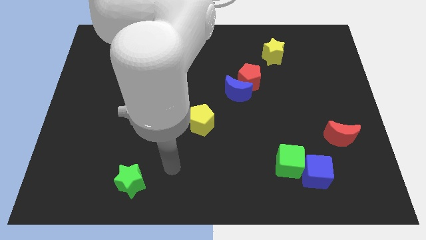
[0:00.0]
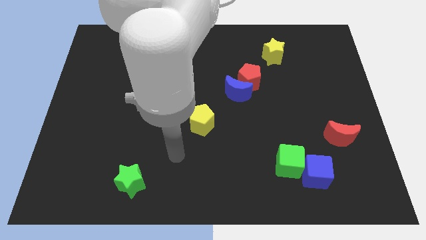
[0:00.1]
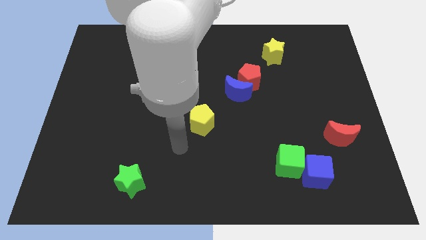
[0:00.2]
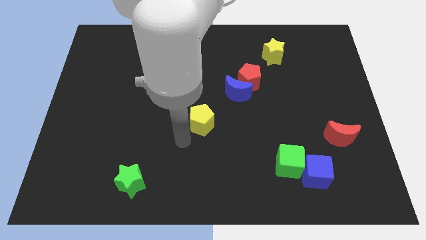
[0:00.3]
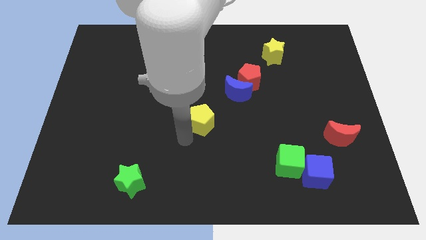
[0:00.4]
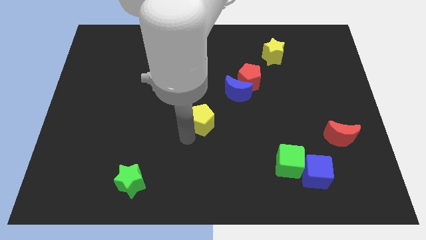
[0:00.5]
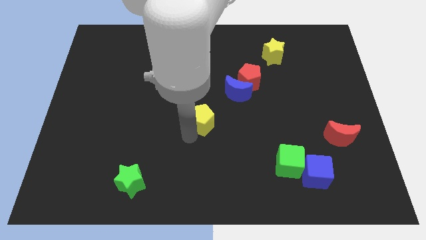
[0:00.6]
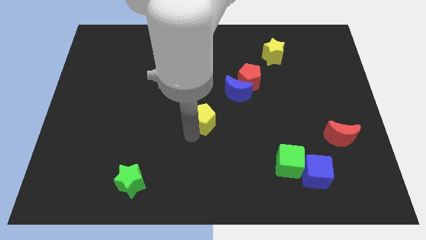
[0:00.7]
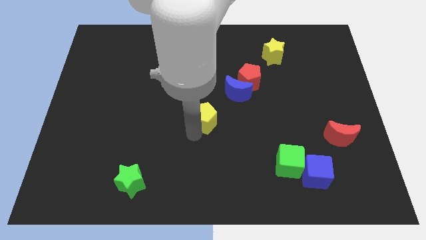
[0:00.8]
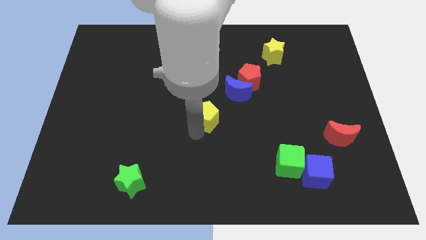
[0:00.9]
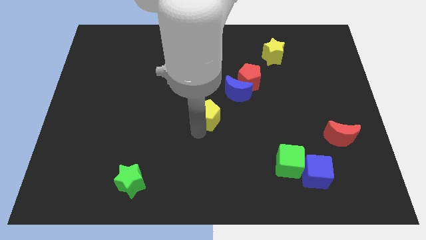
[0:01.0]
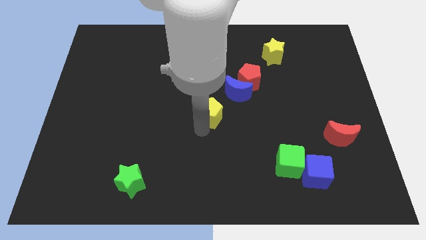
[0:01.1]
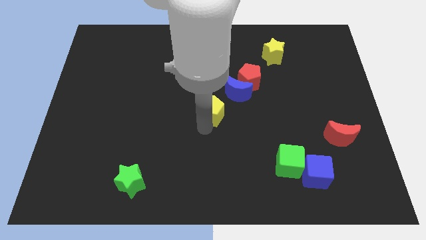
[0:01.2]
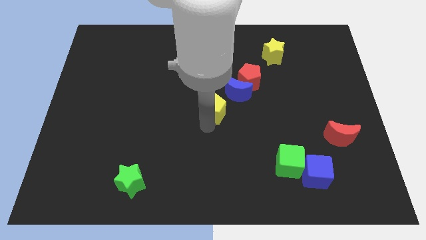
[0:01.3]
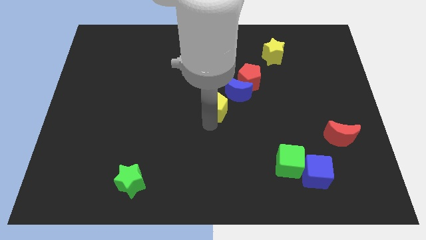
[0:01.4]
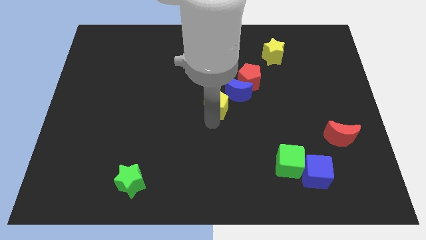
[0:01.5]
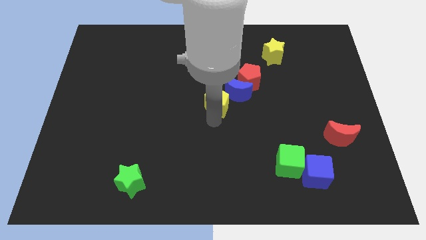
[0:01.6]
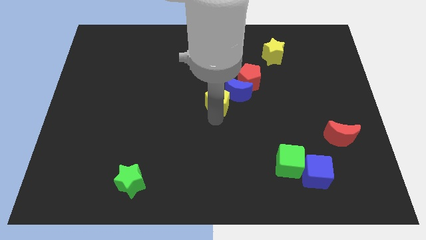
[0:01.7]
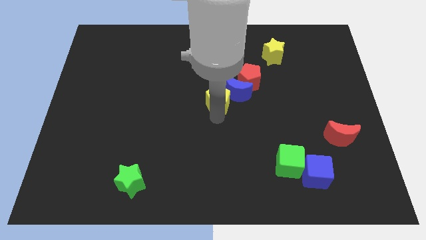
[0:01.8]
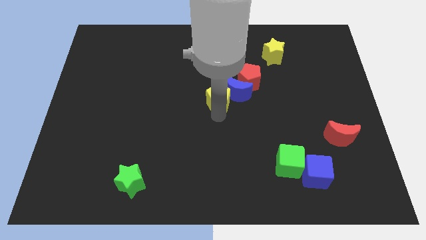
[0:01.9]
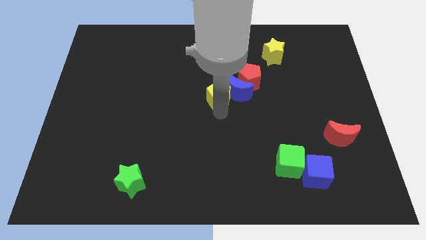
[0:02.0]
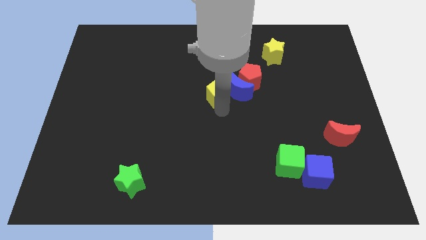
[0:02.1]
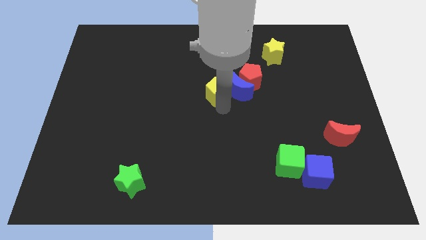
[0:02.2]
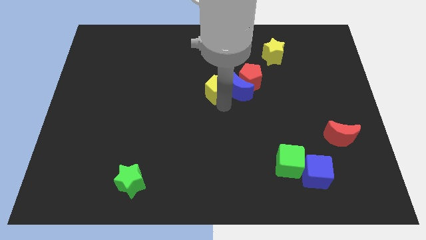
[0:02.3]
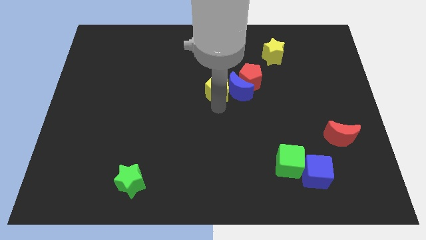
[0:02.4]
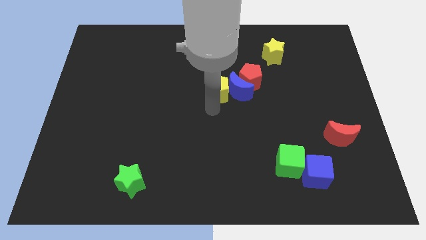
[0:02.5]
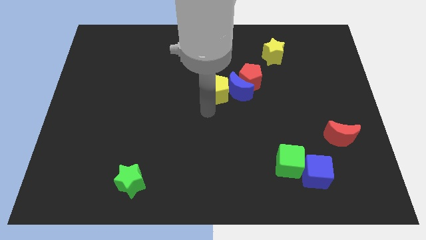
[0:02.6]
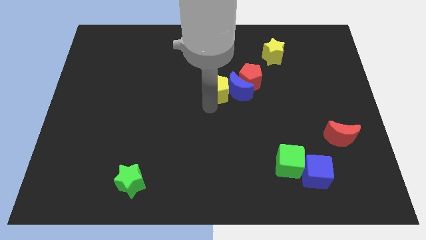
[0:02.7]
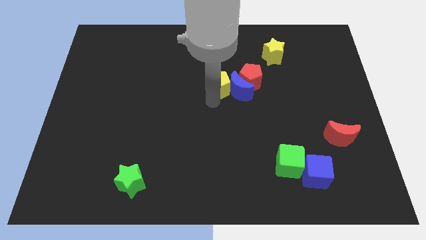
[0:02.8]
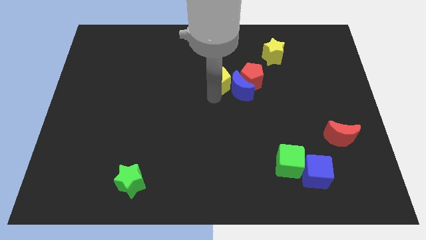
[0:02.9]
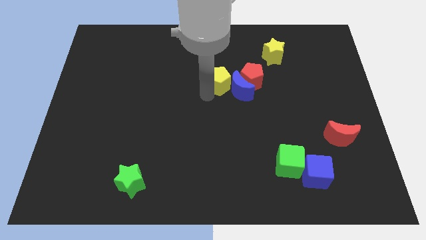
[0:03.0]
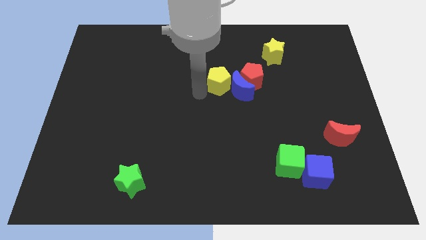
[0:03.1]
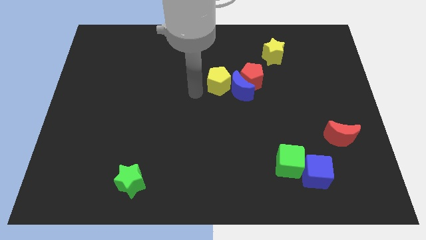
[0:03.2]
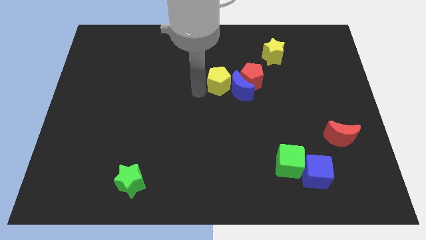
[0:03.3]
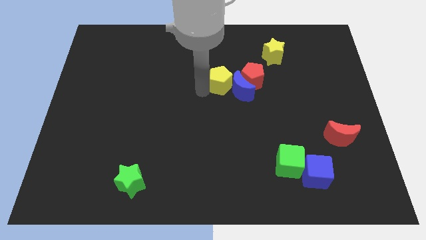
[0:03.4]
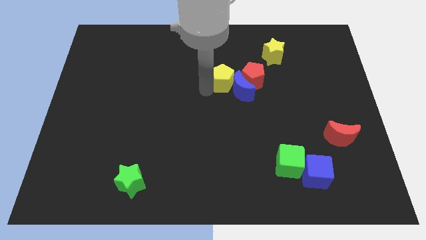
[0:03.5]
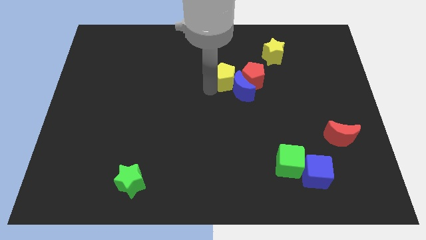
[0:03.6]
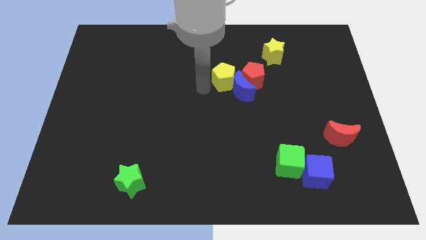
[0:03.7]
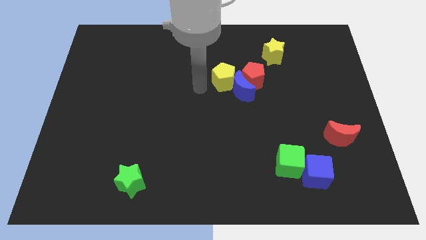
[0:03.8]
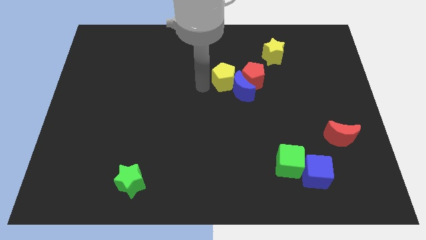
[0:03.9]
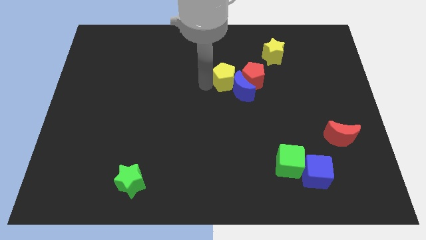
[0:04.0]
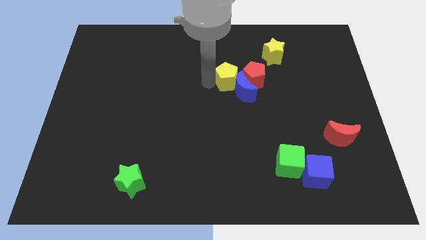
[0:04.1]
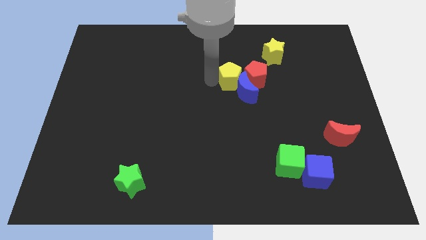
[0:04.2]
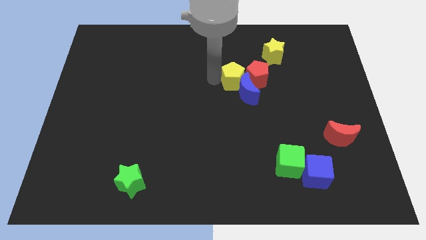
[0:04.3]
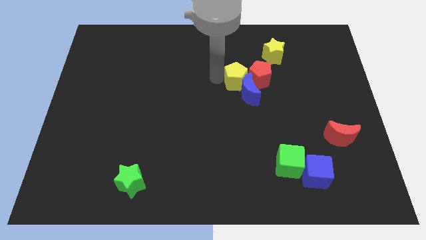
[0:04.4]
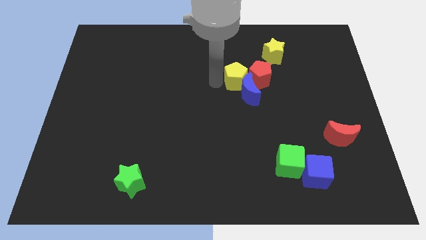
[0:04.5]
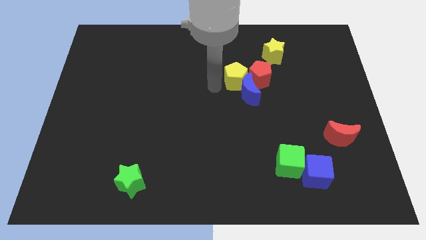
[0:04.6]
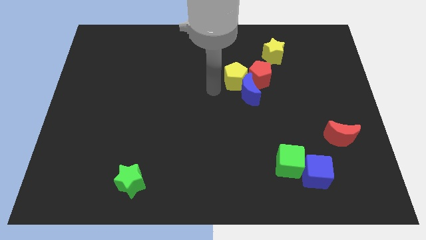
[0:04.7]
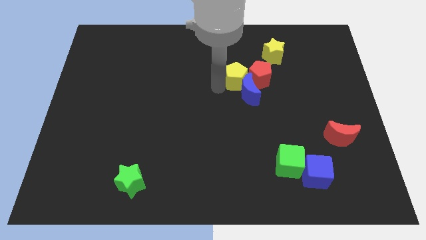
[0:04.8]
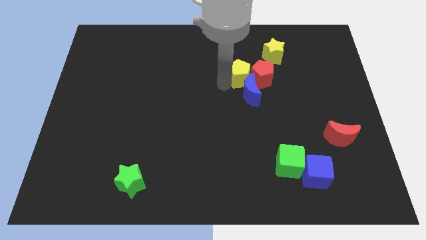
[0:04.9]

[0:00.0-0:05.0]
push the yellow pentagon diagonally down and to the left of the yellow star

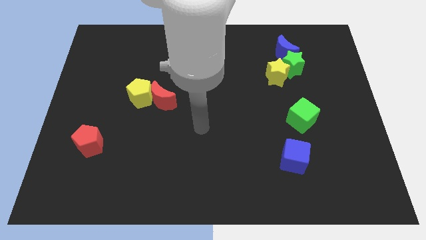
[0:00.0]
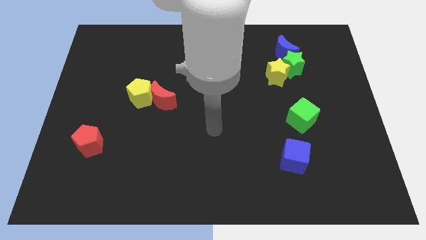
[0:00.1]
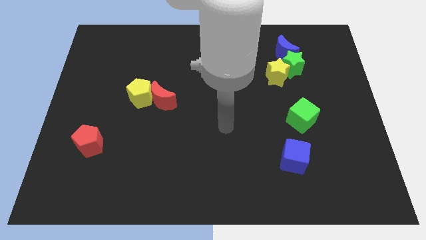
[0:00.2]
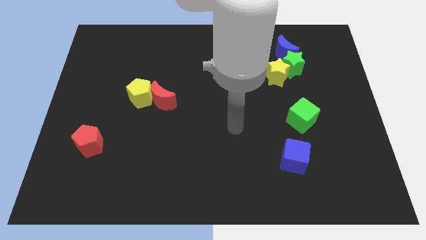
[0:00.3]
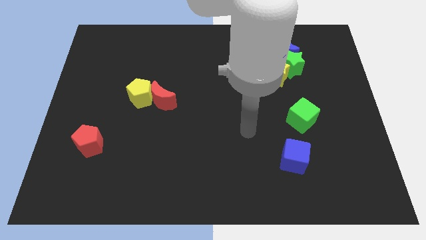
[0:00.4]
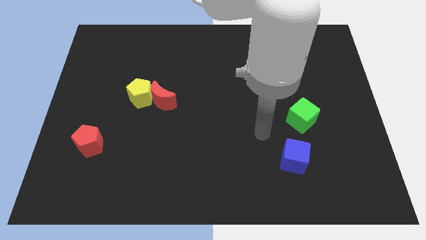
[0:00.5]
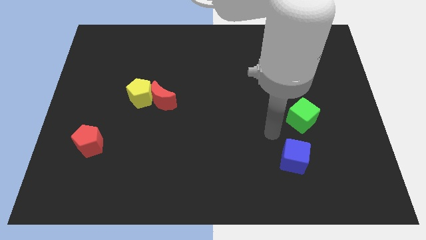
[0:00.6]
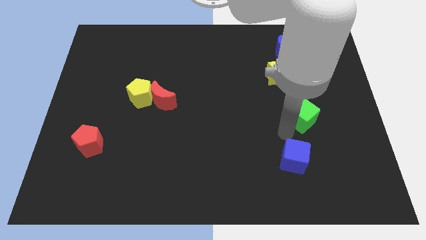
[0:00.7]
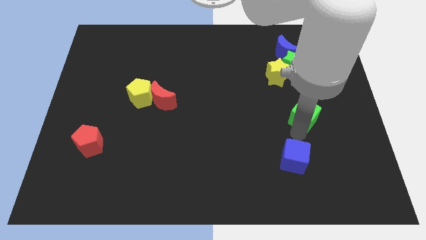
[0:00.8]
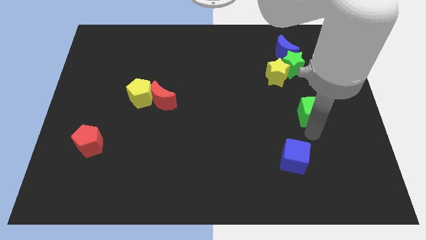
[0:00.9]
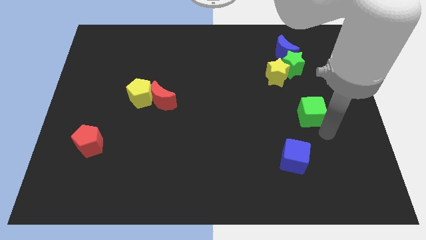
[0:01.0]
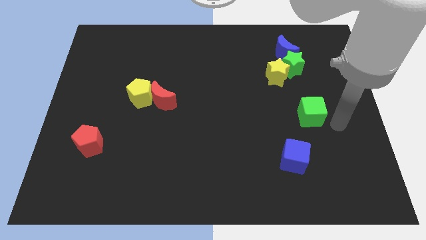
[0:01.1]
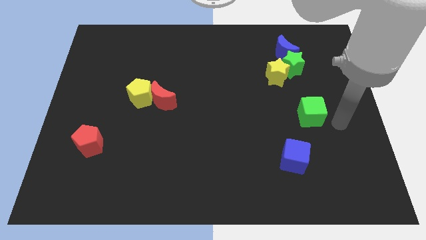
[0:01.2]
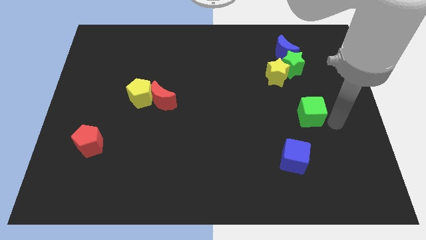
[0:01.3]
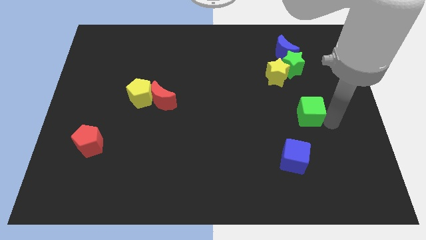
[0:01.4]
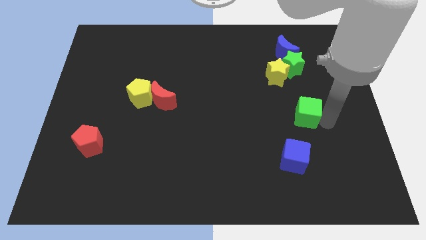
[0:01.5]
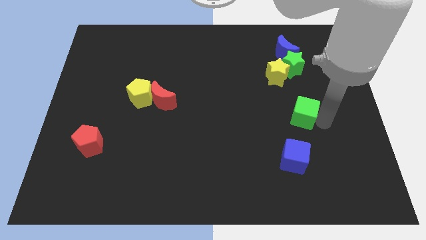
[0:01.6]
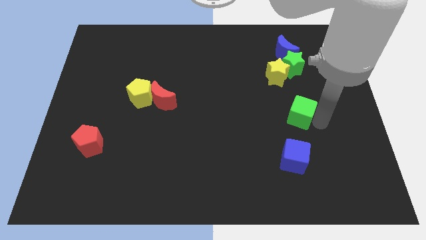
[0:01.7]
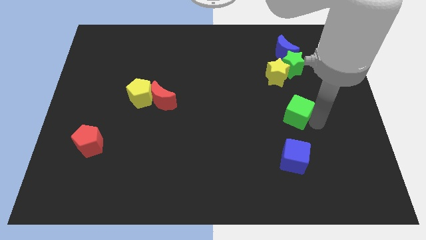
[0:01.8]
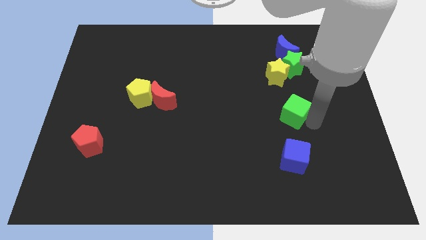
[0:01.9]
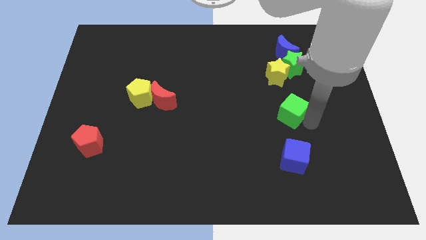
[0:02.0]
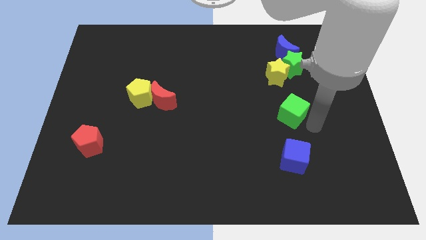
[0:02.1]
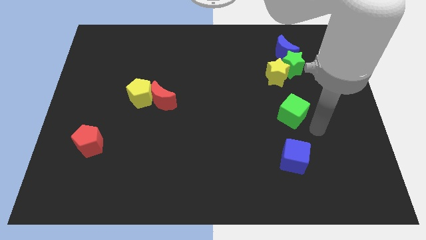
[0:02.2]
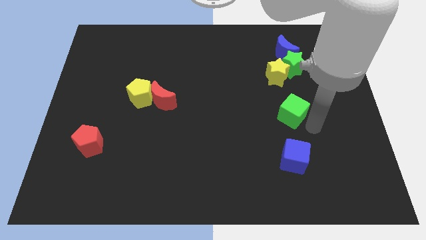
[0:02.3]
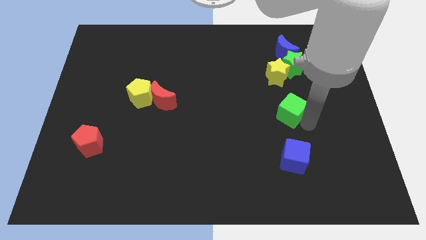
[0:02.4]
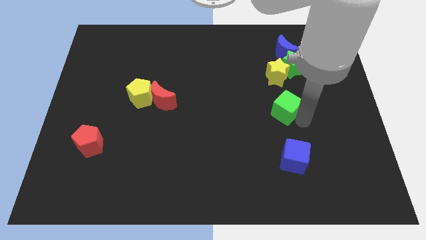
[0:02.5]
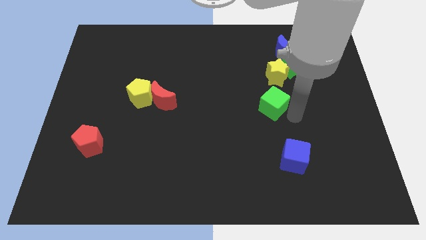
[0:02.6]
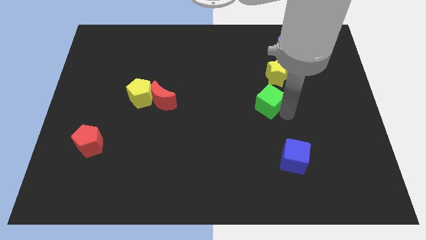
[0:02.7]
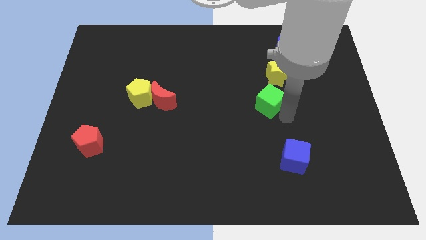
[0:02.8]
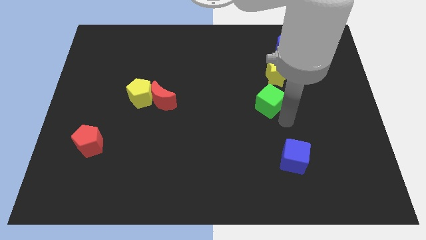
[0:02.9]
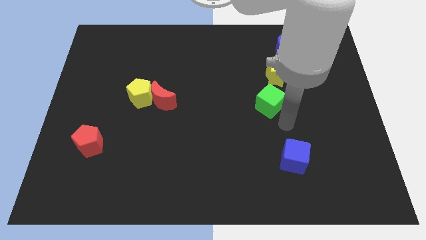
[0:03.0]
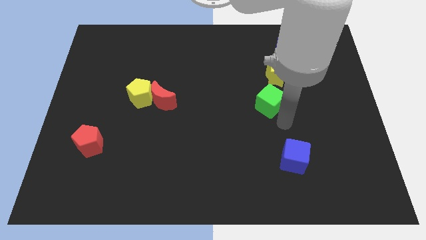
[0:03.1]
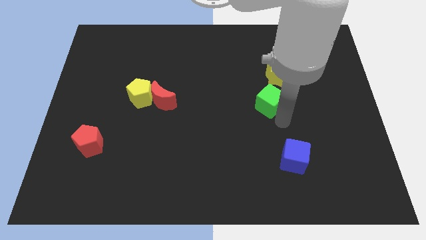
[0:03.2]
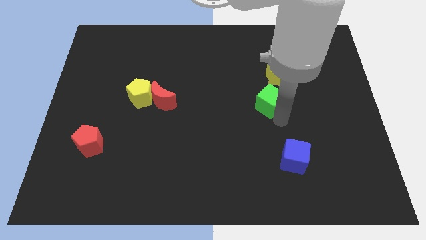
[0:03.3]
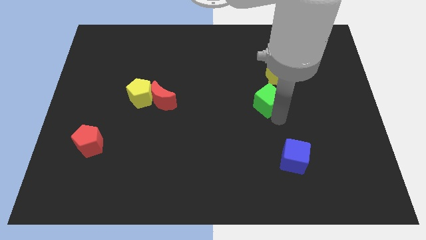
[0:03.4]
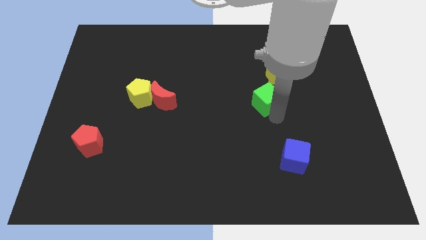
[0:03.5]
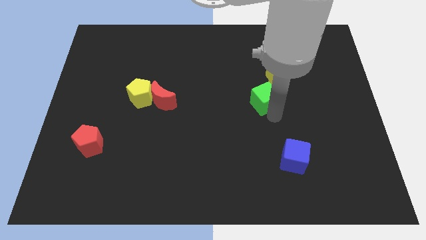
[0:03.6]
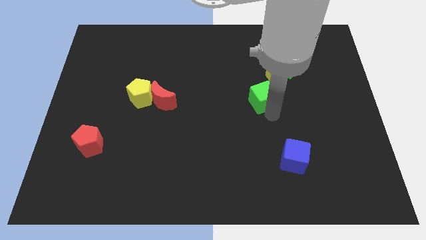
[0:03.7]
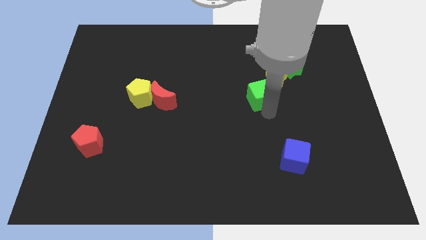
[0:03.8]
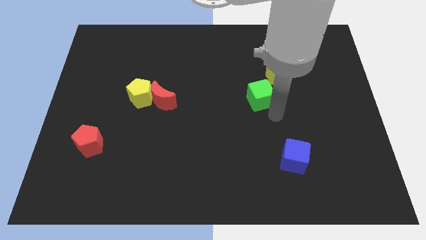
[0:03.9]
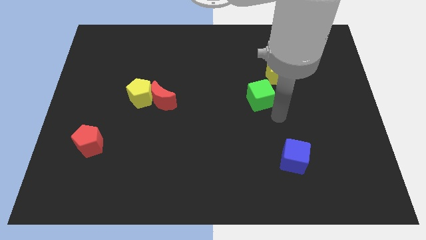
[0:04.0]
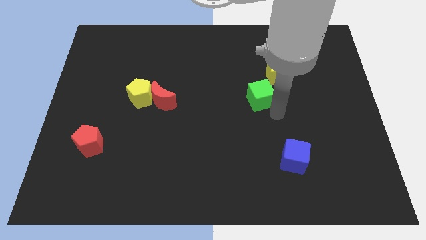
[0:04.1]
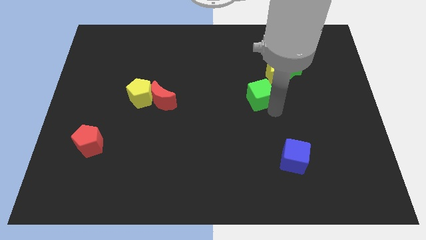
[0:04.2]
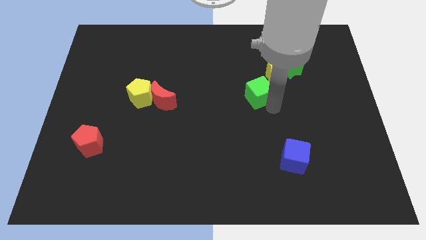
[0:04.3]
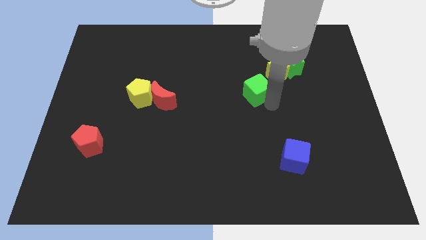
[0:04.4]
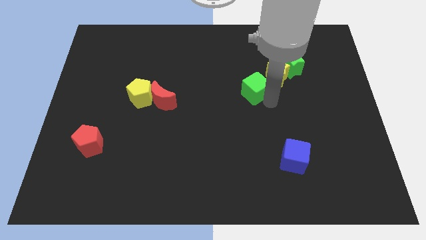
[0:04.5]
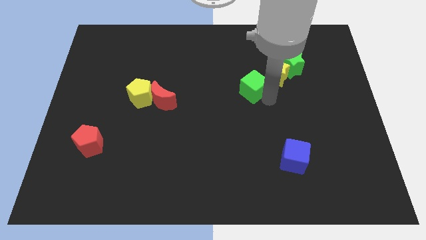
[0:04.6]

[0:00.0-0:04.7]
move the green cube left of the yellow star
